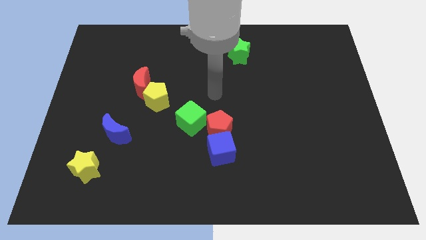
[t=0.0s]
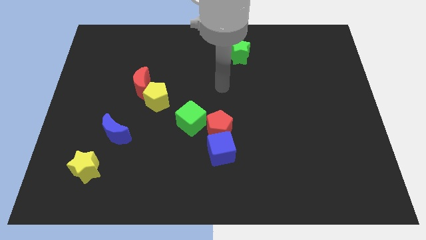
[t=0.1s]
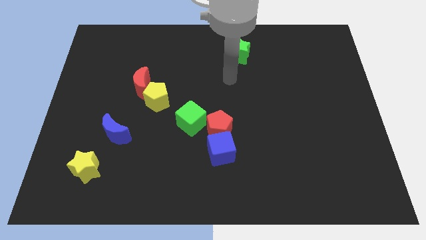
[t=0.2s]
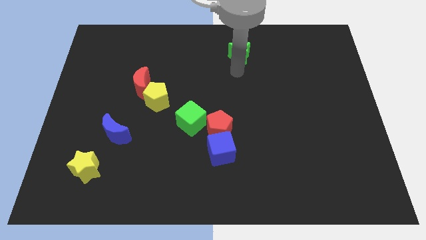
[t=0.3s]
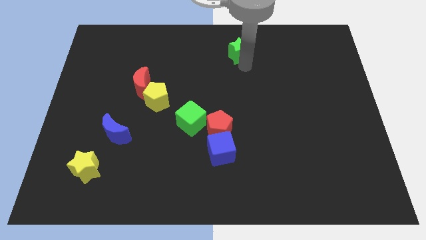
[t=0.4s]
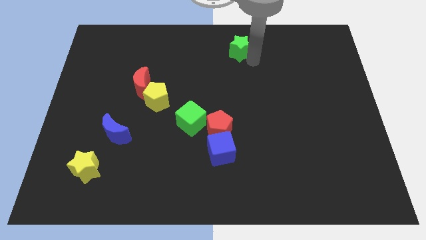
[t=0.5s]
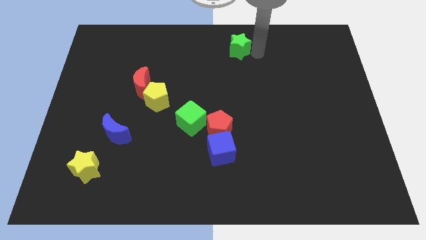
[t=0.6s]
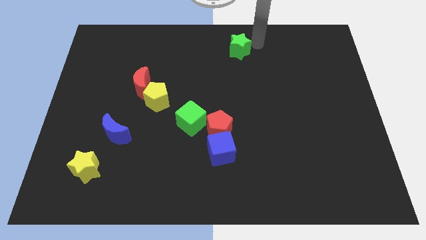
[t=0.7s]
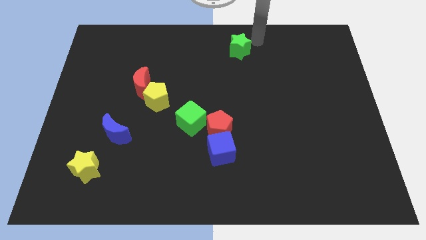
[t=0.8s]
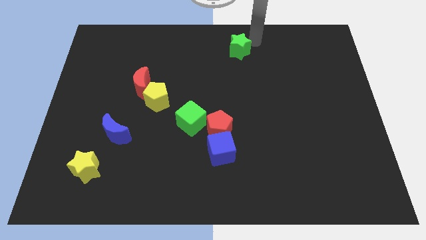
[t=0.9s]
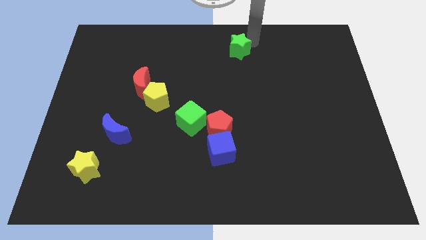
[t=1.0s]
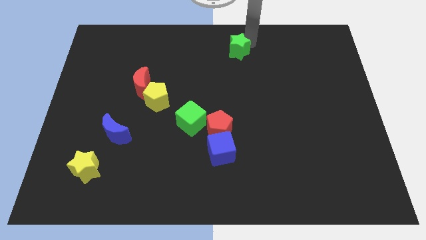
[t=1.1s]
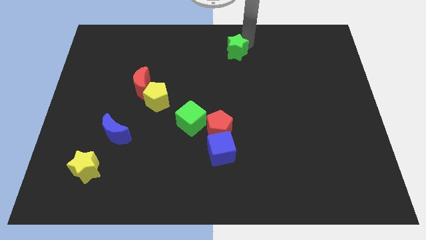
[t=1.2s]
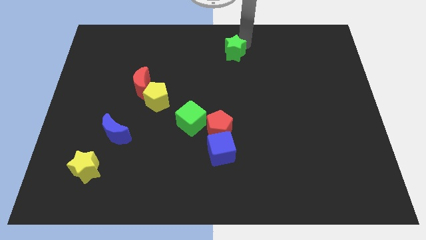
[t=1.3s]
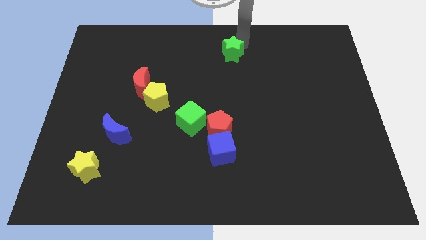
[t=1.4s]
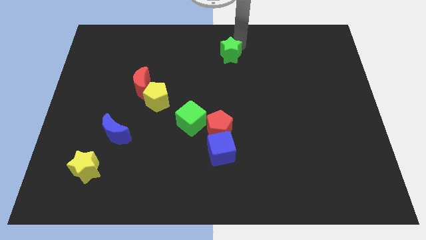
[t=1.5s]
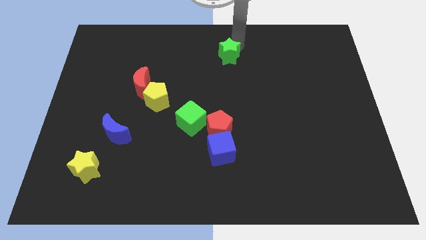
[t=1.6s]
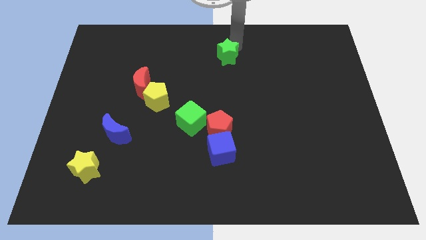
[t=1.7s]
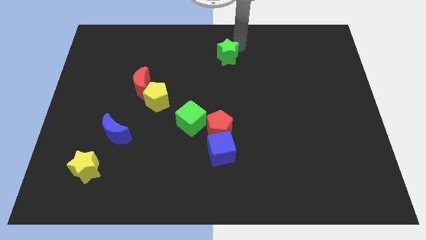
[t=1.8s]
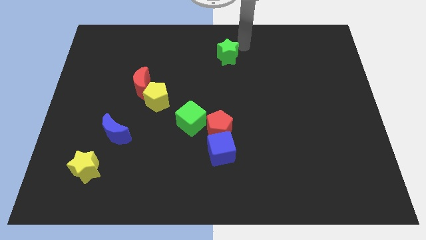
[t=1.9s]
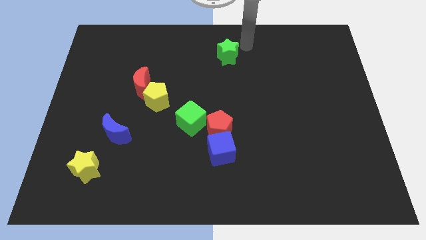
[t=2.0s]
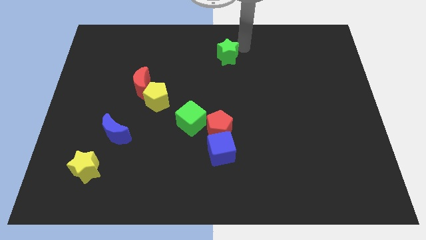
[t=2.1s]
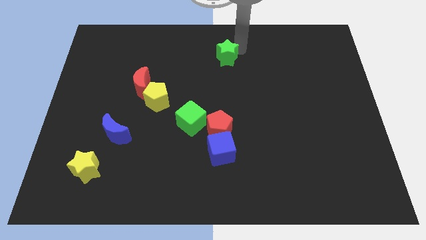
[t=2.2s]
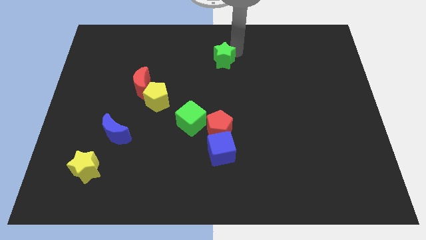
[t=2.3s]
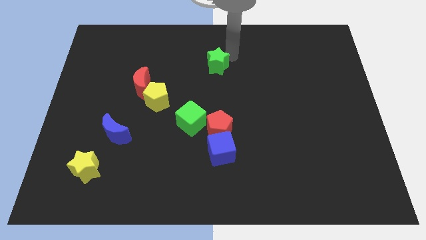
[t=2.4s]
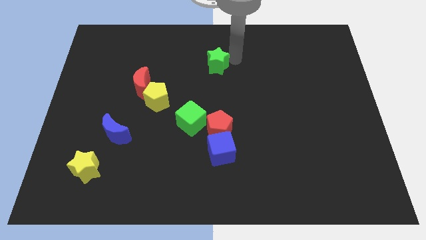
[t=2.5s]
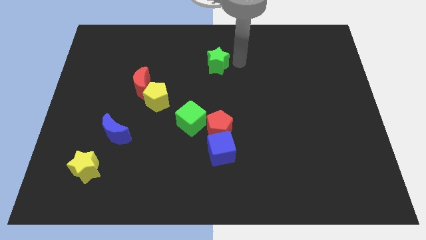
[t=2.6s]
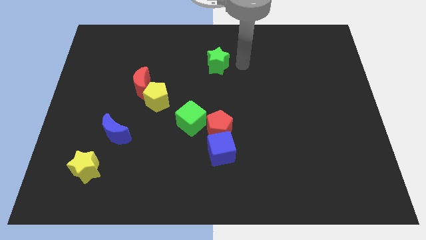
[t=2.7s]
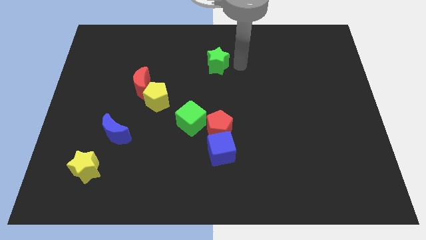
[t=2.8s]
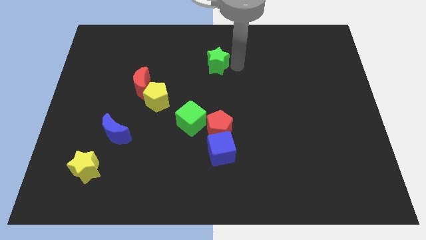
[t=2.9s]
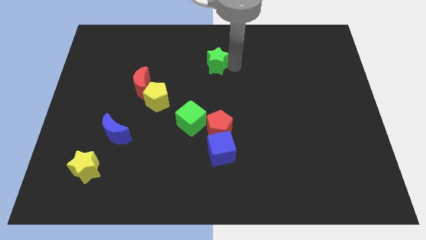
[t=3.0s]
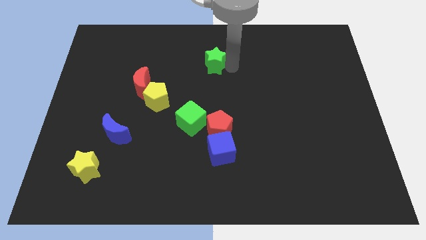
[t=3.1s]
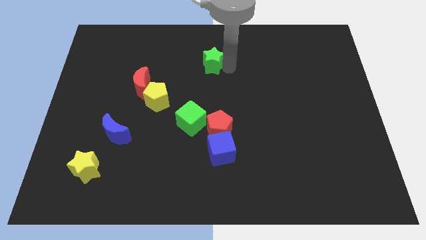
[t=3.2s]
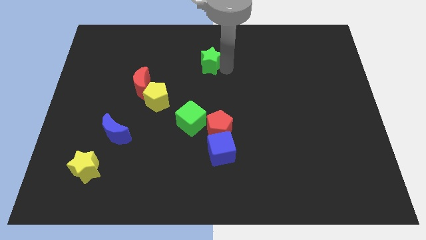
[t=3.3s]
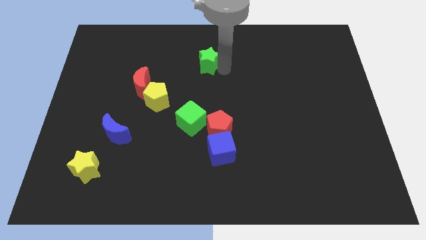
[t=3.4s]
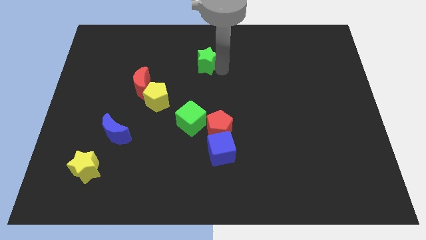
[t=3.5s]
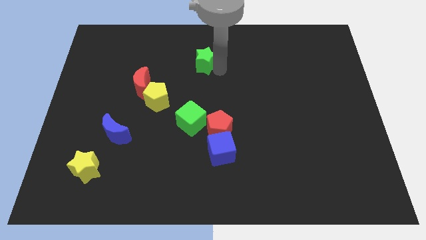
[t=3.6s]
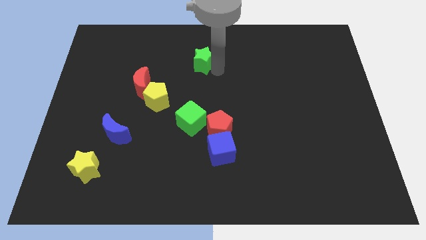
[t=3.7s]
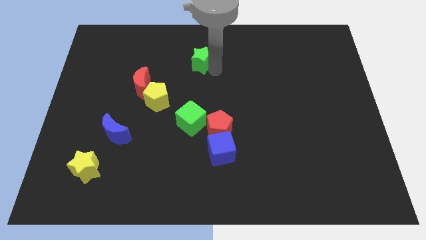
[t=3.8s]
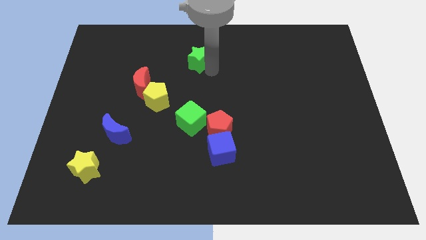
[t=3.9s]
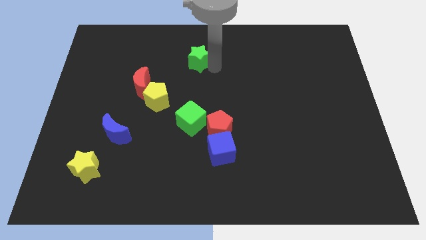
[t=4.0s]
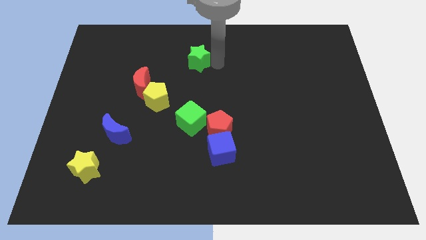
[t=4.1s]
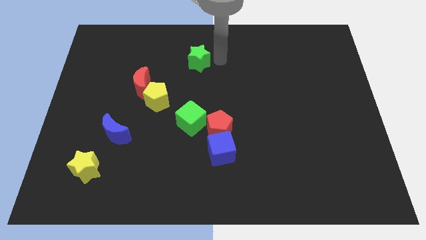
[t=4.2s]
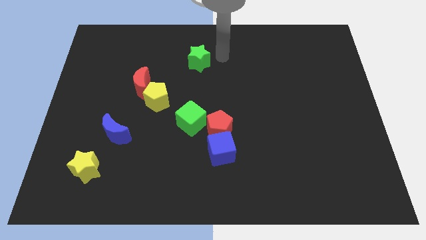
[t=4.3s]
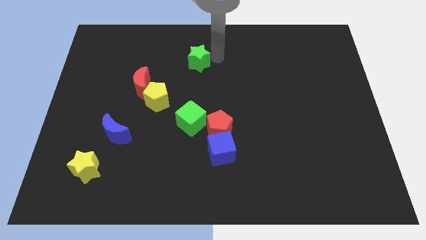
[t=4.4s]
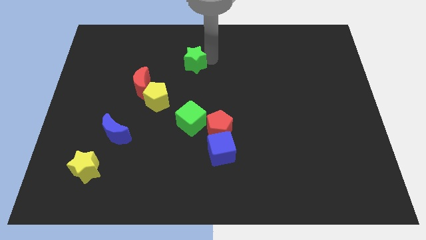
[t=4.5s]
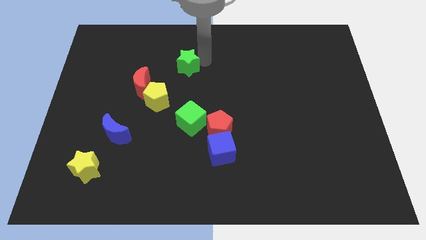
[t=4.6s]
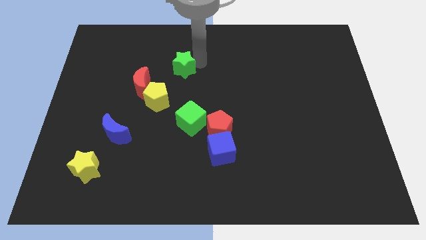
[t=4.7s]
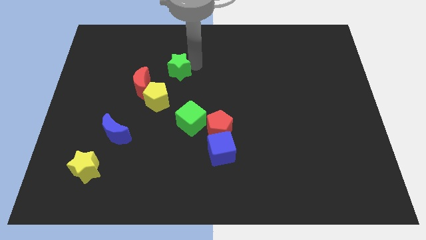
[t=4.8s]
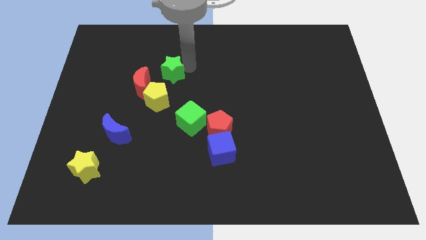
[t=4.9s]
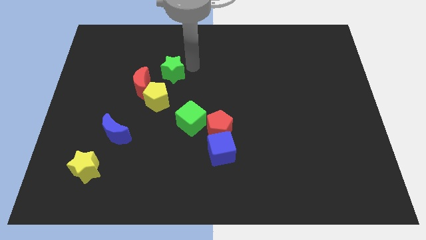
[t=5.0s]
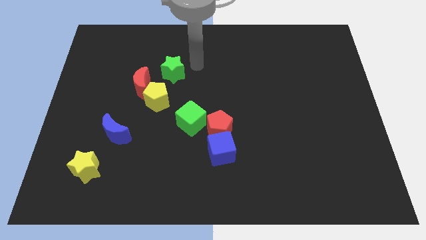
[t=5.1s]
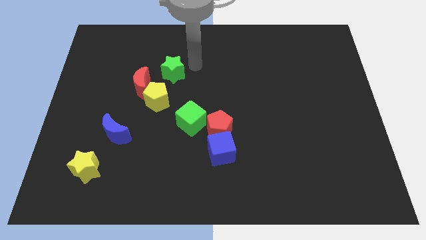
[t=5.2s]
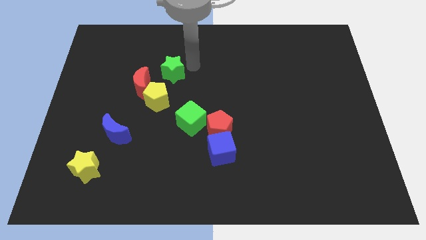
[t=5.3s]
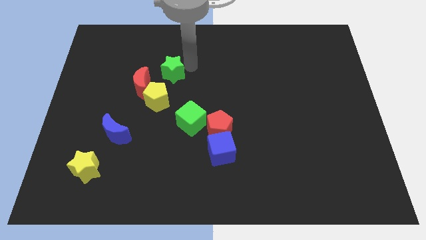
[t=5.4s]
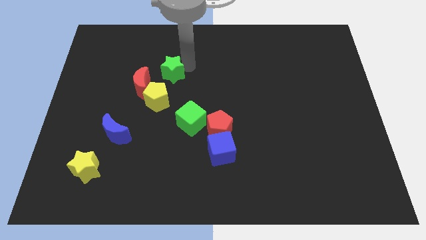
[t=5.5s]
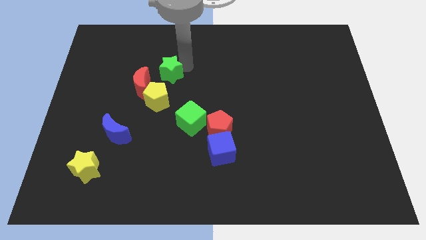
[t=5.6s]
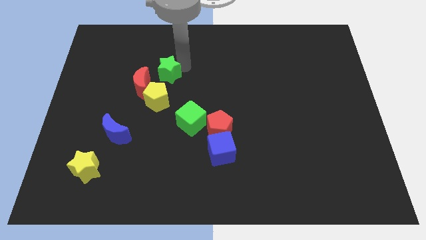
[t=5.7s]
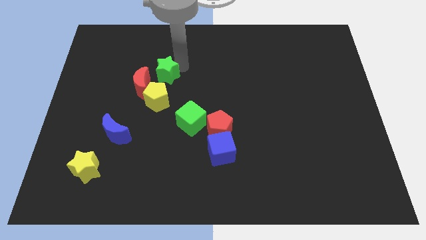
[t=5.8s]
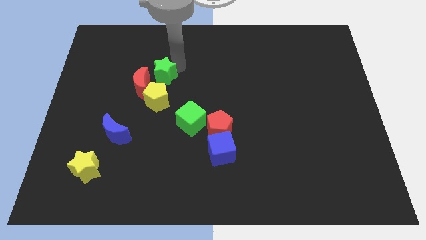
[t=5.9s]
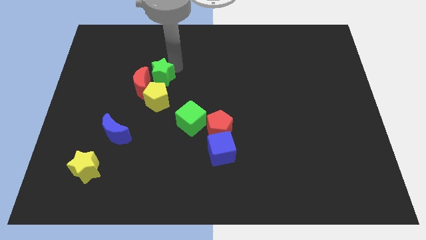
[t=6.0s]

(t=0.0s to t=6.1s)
slide the green star next to the red moon

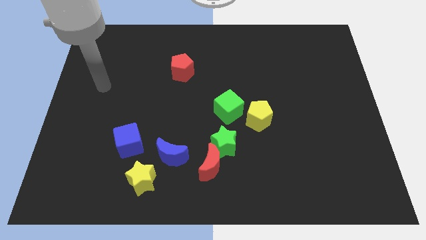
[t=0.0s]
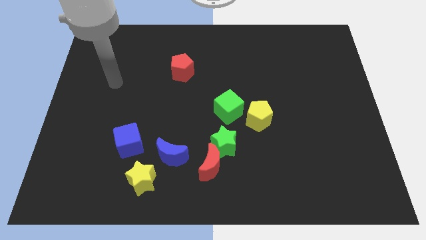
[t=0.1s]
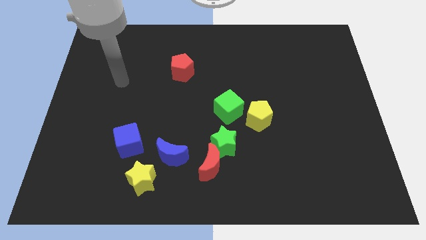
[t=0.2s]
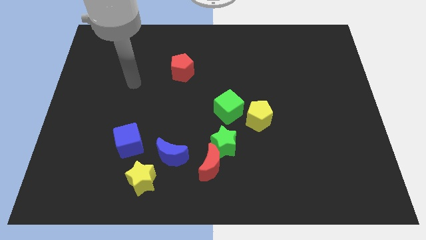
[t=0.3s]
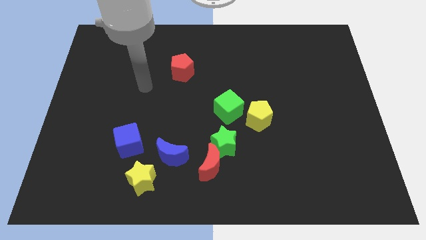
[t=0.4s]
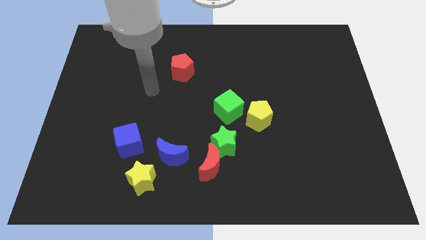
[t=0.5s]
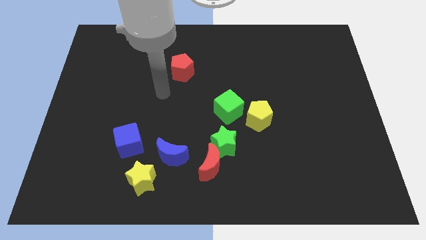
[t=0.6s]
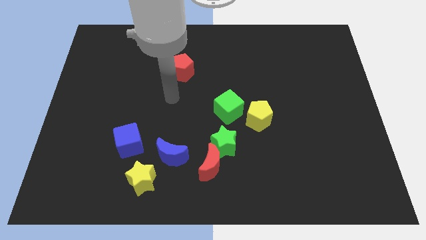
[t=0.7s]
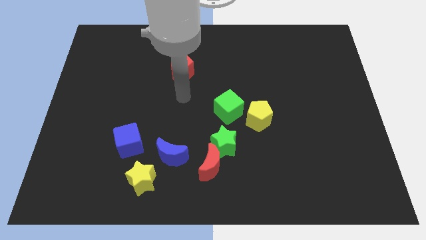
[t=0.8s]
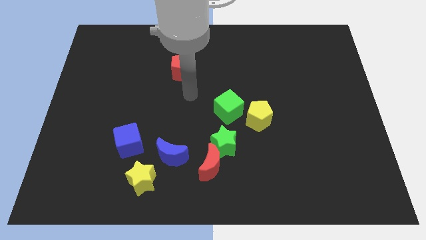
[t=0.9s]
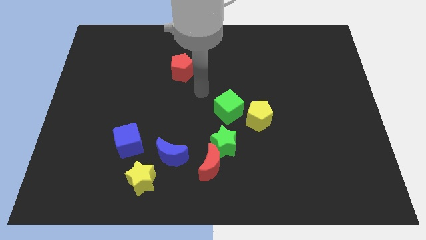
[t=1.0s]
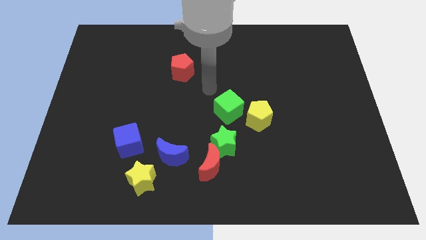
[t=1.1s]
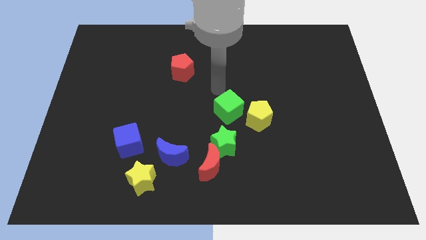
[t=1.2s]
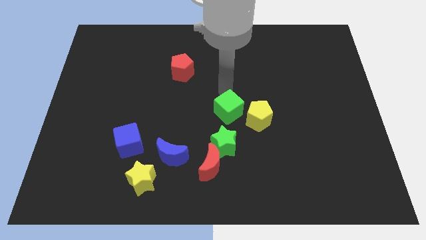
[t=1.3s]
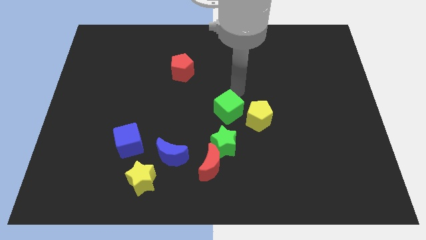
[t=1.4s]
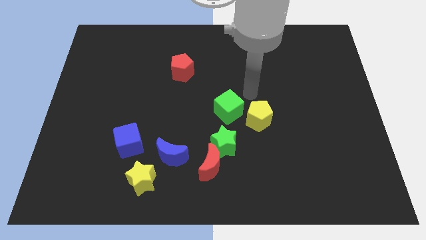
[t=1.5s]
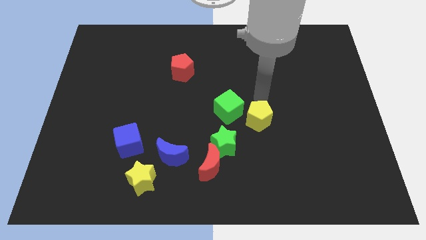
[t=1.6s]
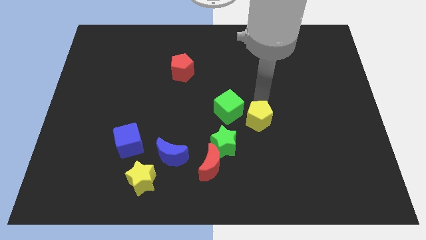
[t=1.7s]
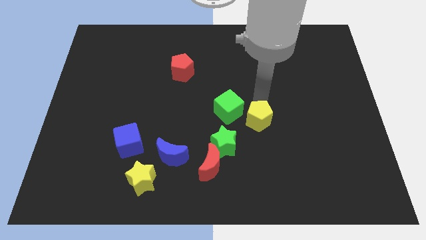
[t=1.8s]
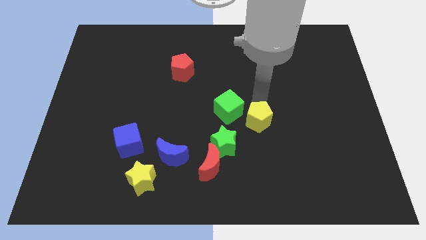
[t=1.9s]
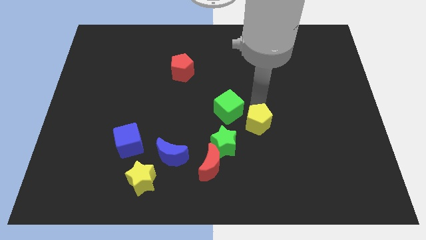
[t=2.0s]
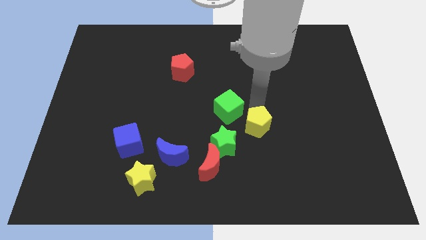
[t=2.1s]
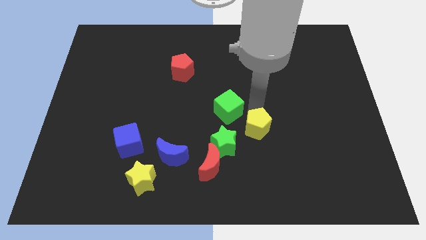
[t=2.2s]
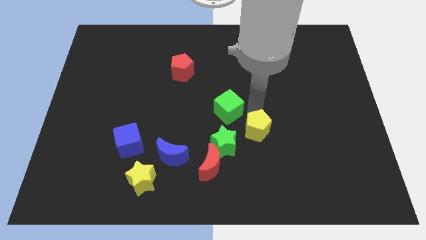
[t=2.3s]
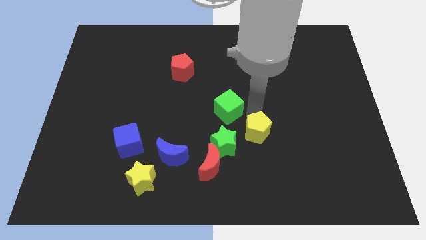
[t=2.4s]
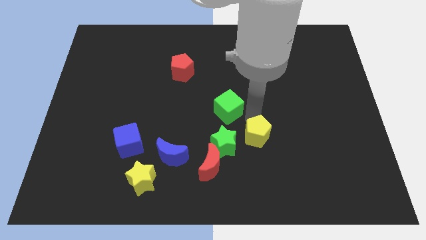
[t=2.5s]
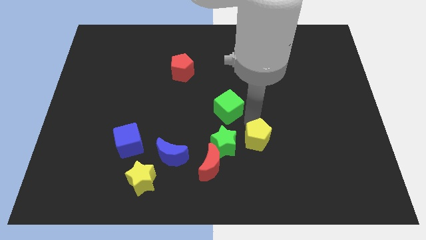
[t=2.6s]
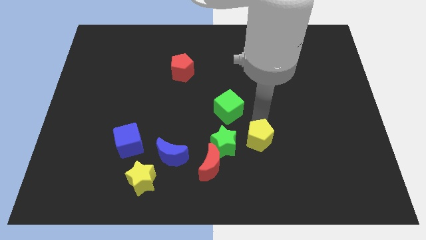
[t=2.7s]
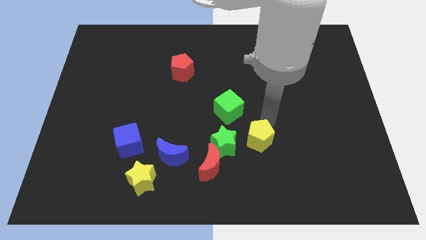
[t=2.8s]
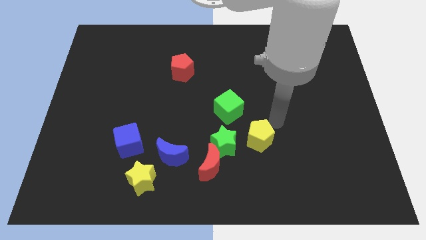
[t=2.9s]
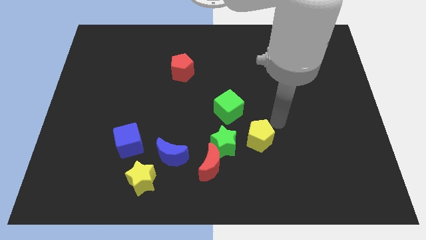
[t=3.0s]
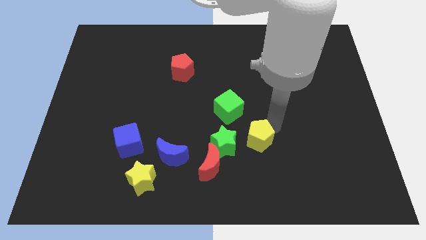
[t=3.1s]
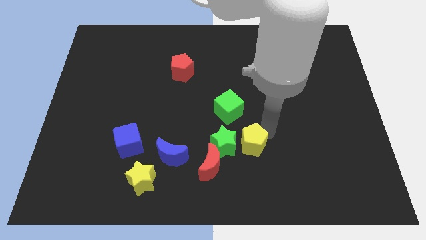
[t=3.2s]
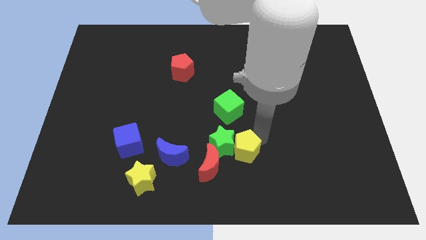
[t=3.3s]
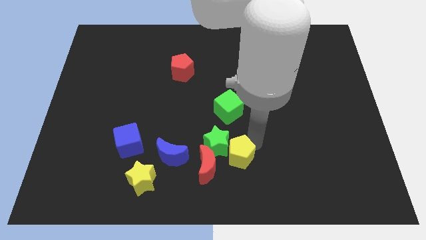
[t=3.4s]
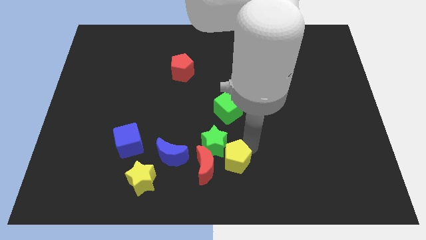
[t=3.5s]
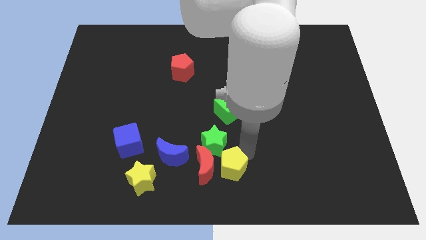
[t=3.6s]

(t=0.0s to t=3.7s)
push the yellow pentagon close to the red moon
